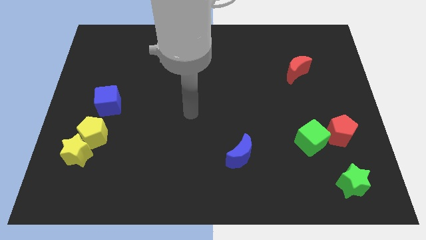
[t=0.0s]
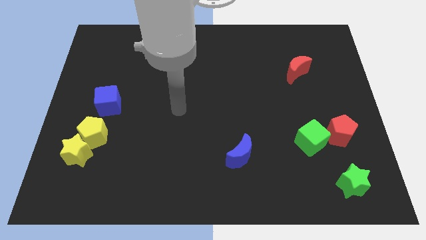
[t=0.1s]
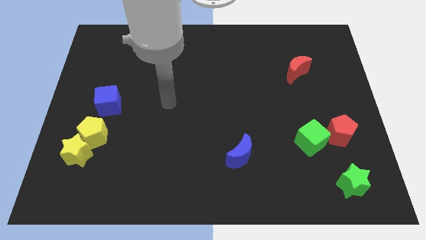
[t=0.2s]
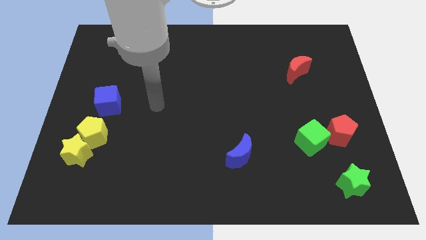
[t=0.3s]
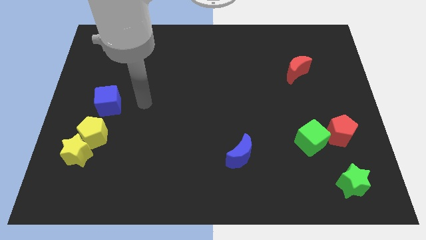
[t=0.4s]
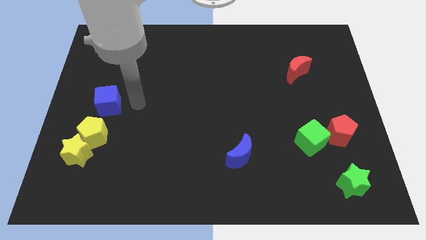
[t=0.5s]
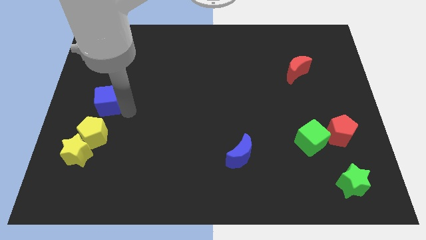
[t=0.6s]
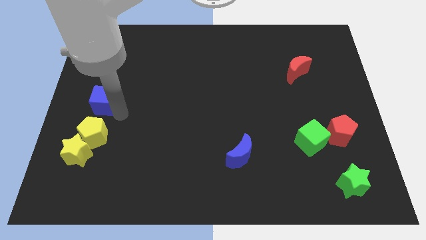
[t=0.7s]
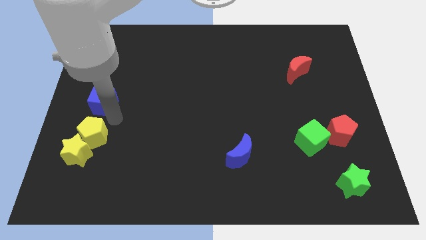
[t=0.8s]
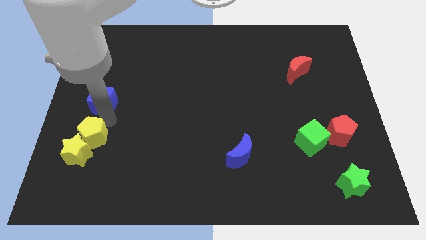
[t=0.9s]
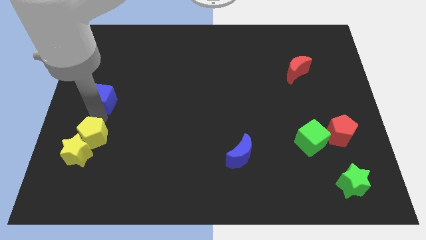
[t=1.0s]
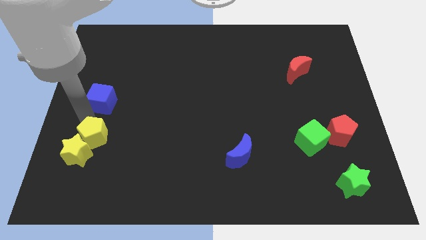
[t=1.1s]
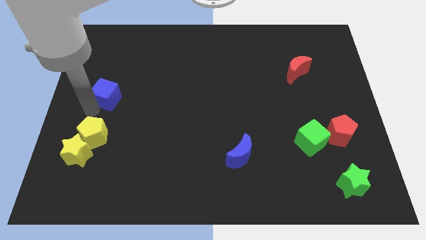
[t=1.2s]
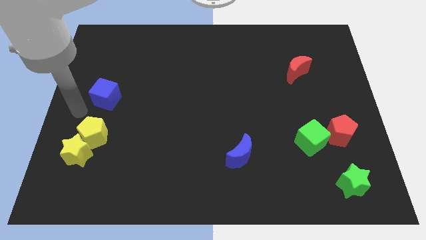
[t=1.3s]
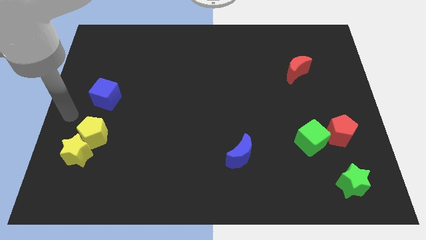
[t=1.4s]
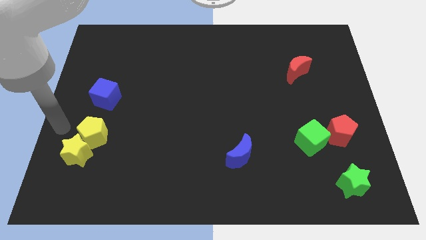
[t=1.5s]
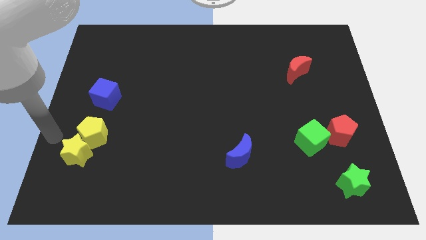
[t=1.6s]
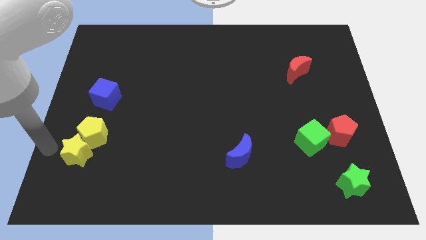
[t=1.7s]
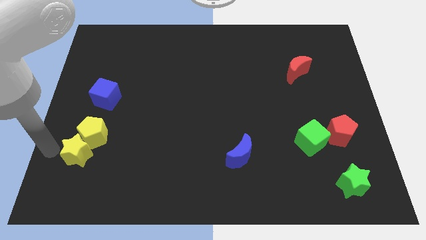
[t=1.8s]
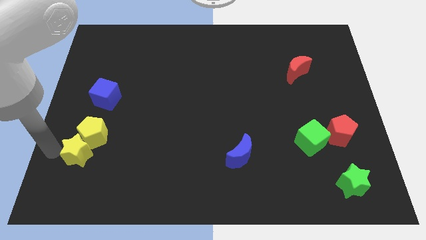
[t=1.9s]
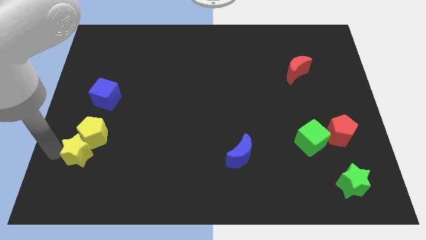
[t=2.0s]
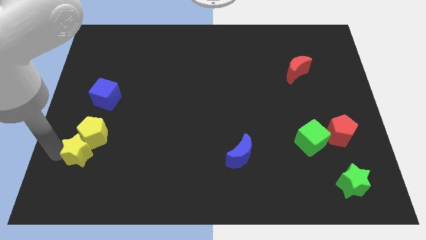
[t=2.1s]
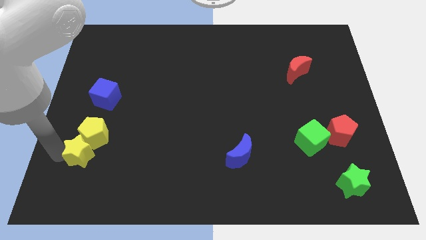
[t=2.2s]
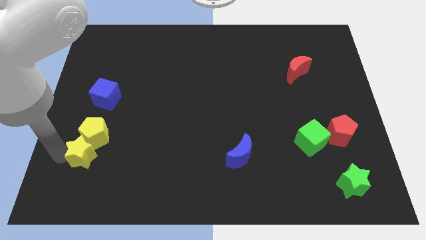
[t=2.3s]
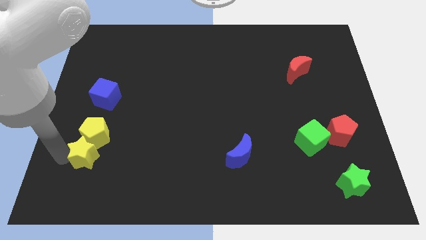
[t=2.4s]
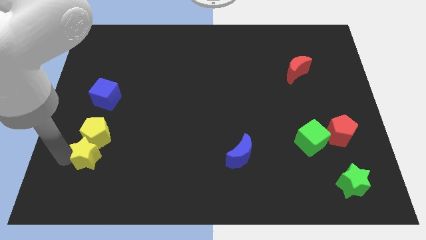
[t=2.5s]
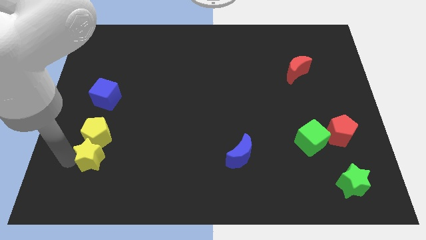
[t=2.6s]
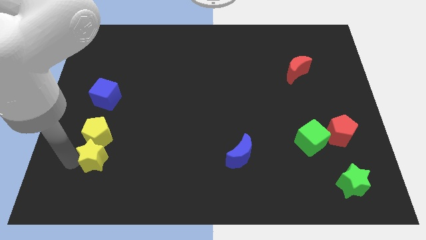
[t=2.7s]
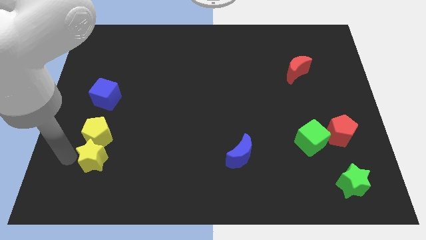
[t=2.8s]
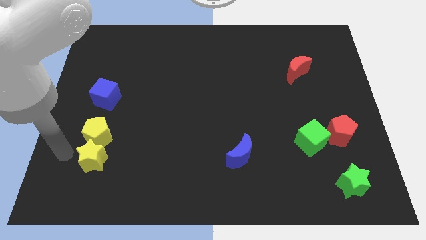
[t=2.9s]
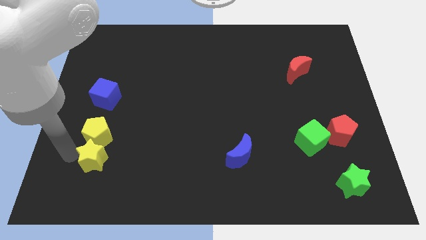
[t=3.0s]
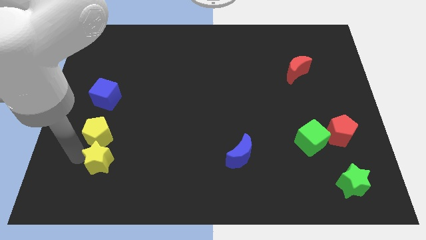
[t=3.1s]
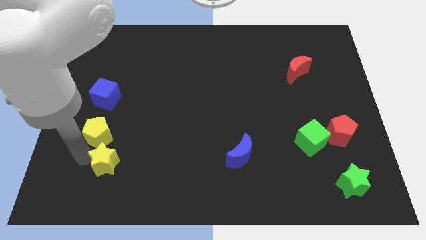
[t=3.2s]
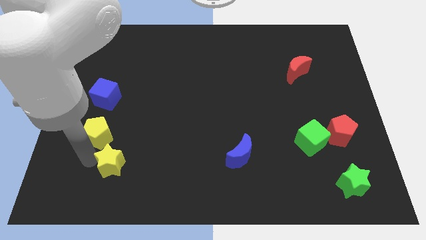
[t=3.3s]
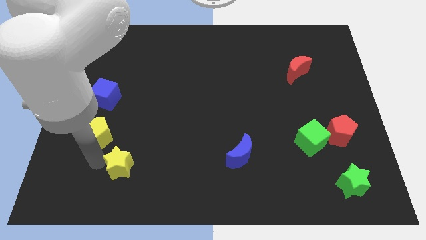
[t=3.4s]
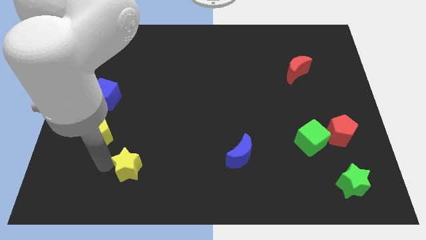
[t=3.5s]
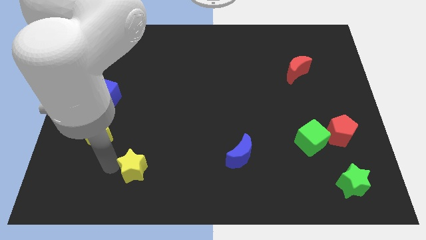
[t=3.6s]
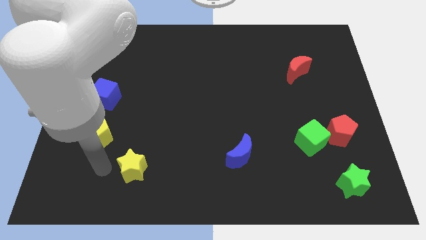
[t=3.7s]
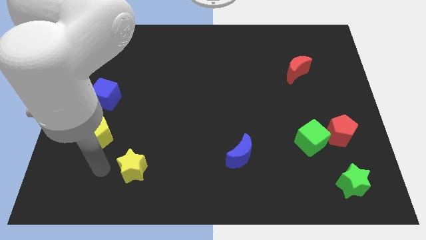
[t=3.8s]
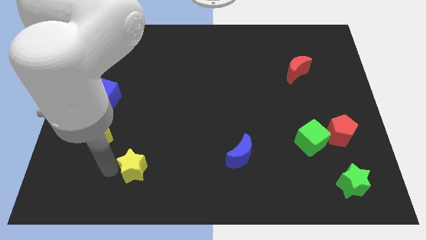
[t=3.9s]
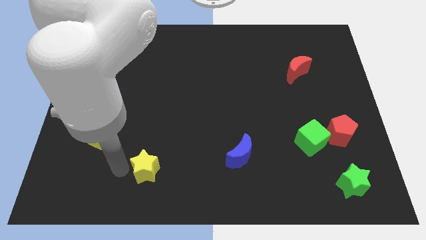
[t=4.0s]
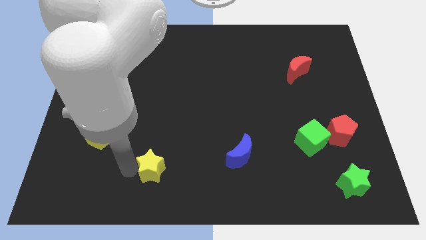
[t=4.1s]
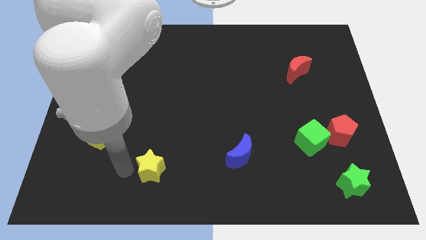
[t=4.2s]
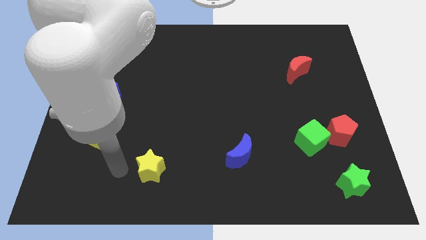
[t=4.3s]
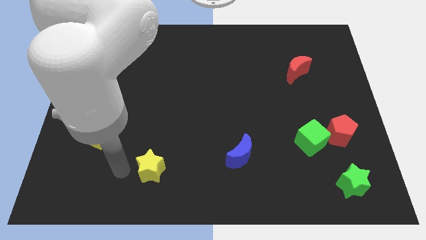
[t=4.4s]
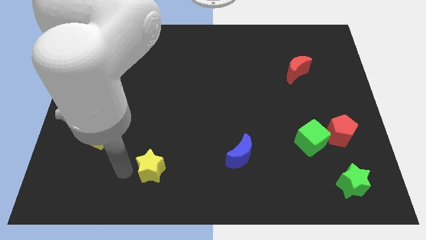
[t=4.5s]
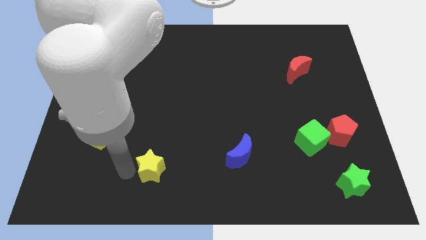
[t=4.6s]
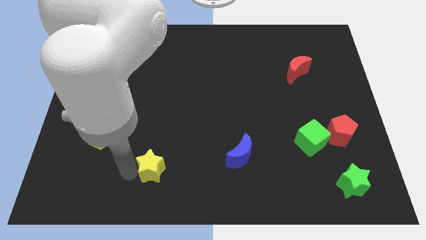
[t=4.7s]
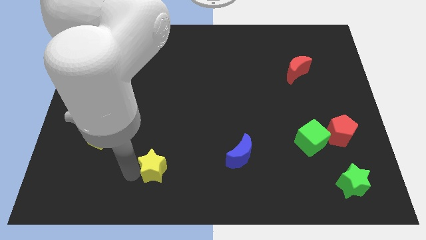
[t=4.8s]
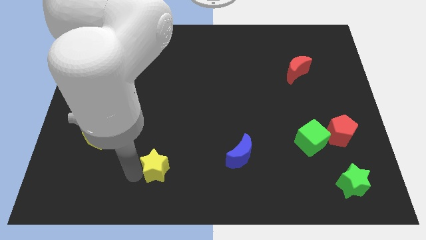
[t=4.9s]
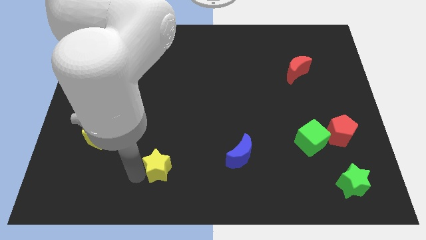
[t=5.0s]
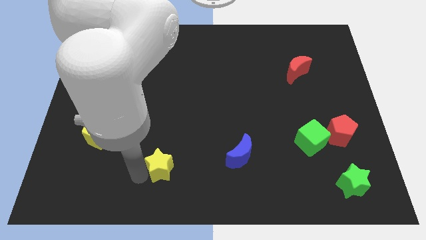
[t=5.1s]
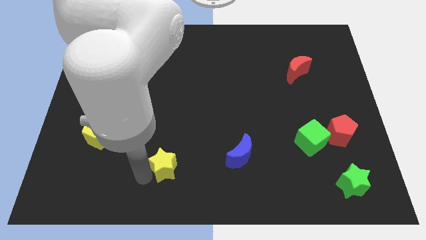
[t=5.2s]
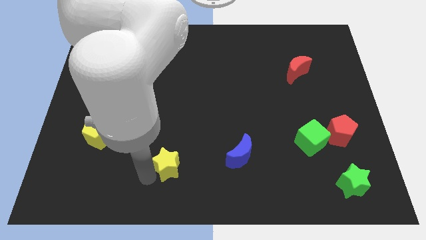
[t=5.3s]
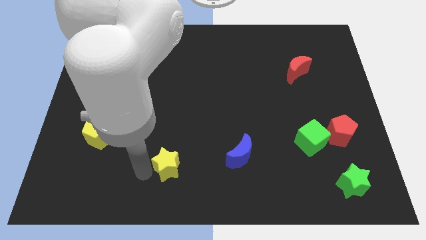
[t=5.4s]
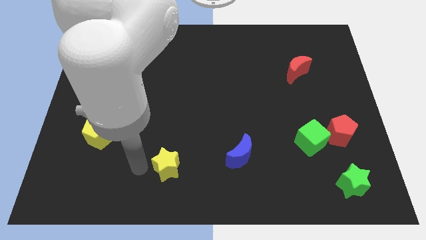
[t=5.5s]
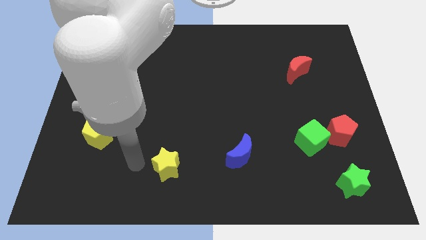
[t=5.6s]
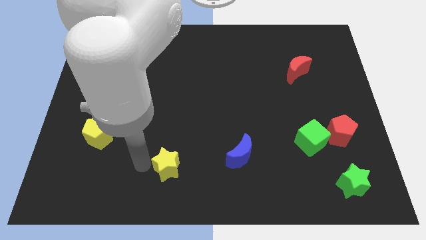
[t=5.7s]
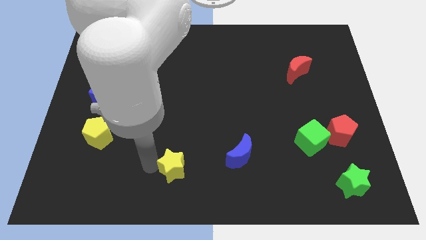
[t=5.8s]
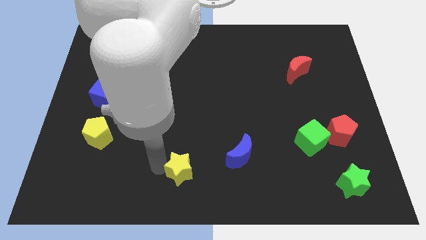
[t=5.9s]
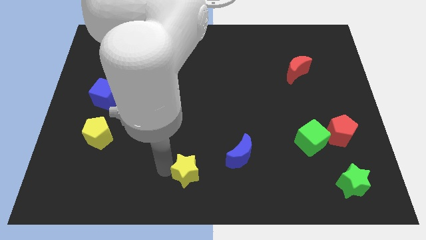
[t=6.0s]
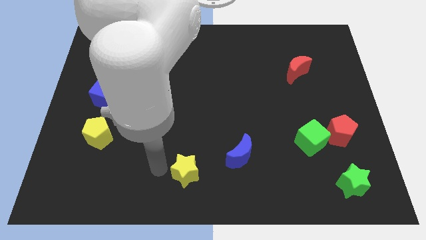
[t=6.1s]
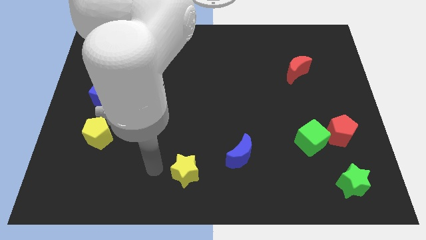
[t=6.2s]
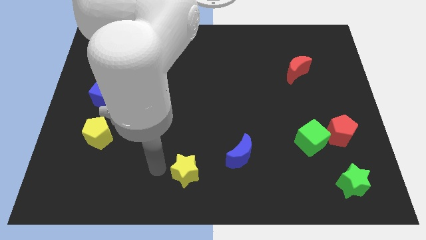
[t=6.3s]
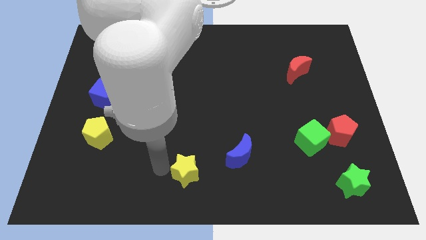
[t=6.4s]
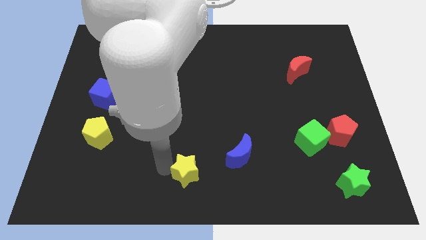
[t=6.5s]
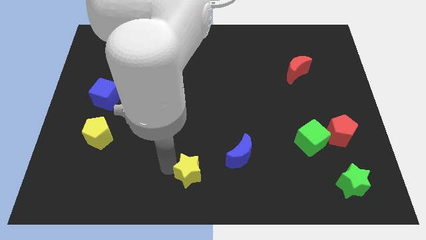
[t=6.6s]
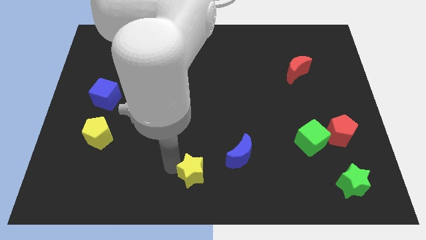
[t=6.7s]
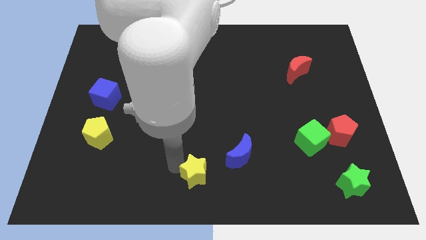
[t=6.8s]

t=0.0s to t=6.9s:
push the yellow star to the bottom left of the blue moon

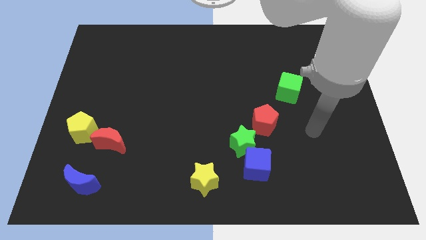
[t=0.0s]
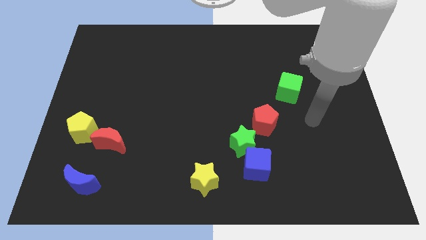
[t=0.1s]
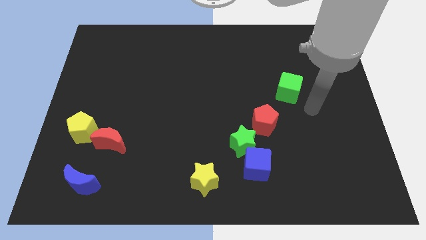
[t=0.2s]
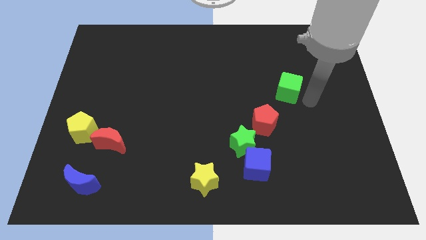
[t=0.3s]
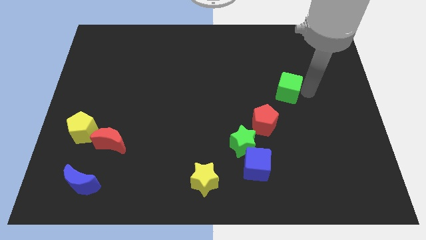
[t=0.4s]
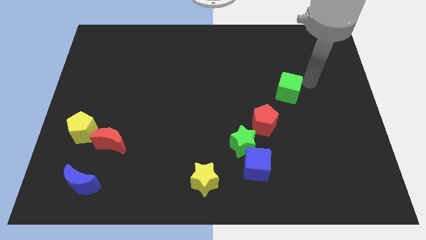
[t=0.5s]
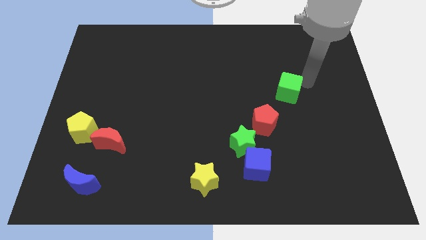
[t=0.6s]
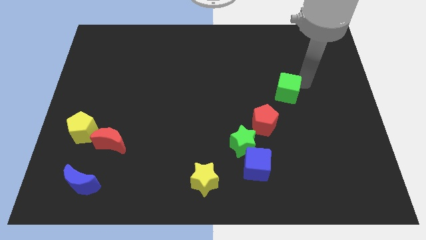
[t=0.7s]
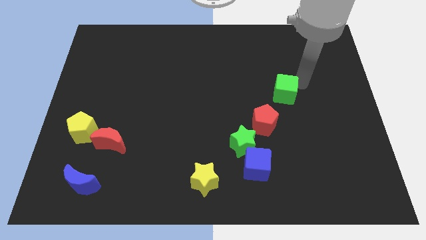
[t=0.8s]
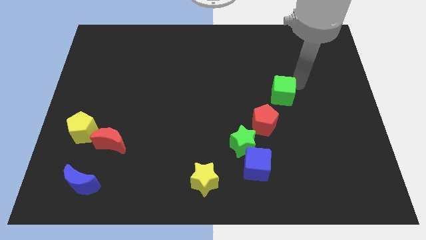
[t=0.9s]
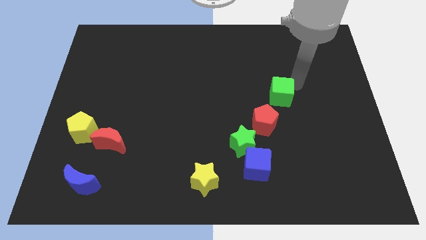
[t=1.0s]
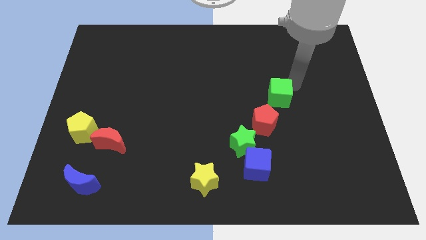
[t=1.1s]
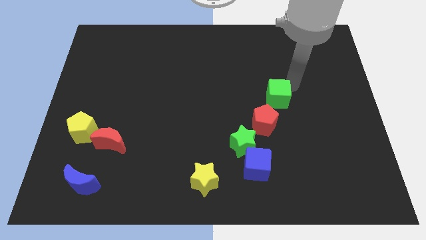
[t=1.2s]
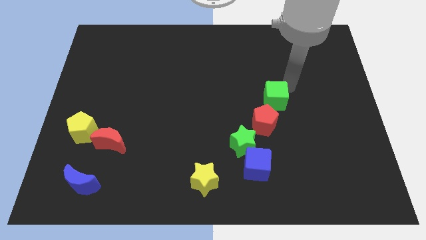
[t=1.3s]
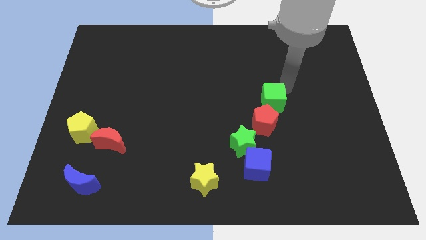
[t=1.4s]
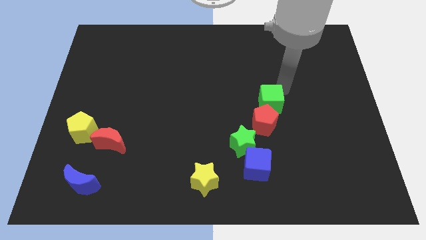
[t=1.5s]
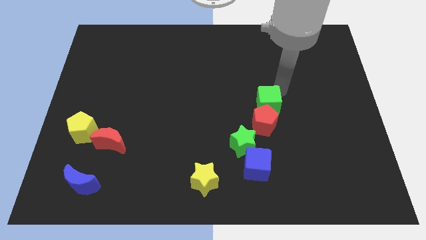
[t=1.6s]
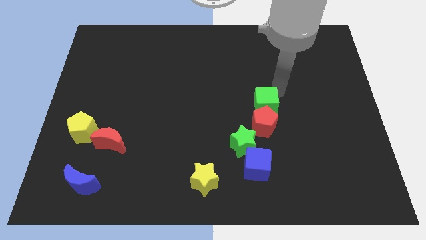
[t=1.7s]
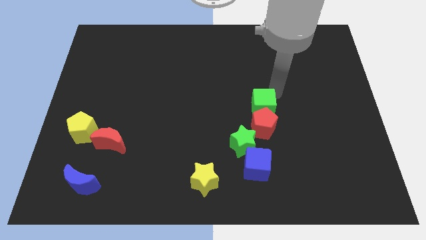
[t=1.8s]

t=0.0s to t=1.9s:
put the green cube to the top of the green star
